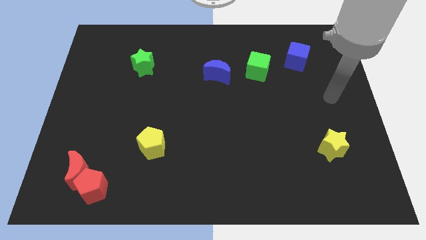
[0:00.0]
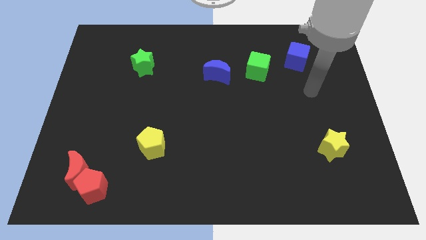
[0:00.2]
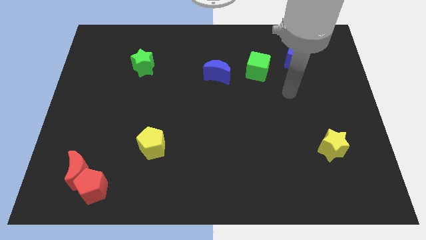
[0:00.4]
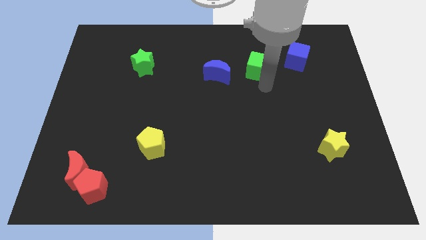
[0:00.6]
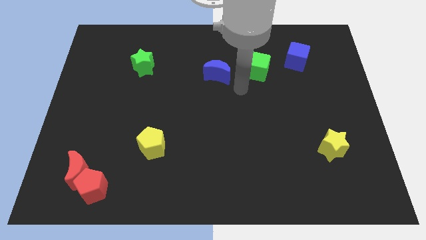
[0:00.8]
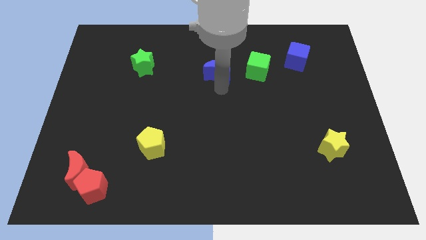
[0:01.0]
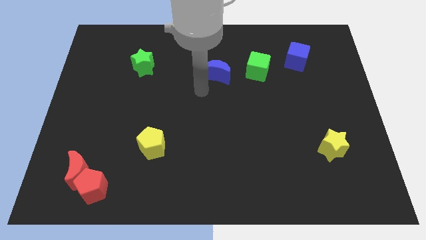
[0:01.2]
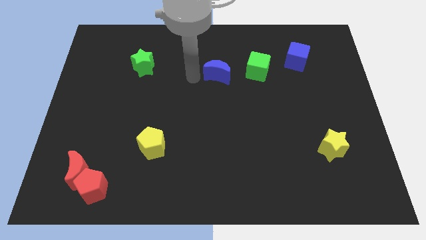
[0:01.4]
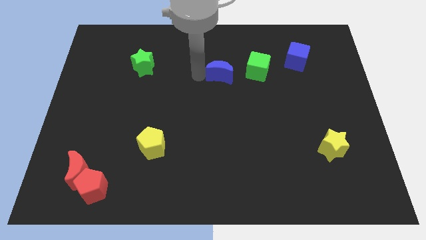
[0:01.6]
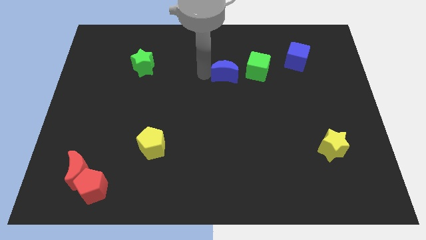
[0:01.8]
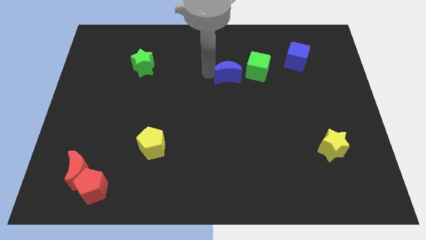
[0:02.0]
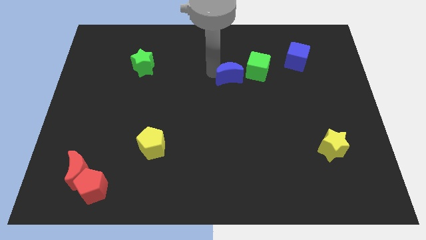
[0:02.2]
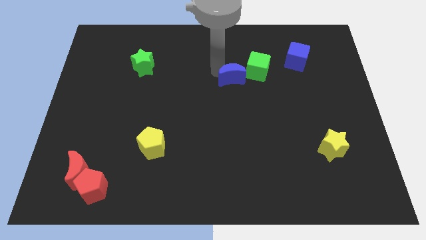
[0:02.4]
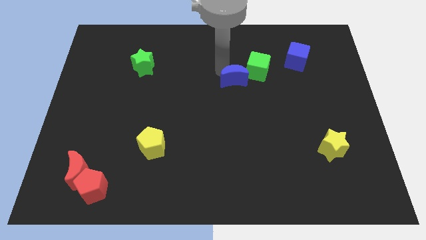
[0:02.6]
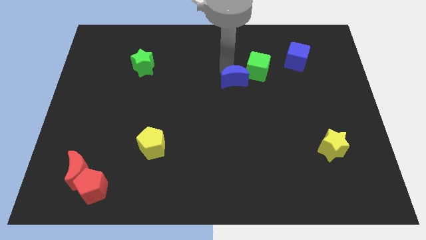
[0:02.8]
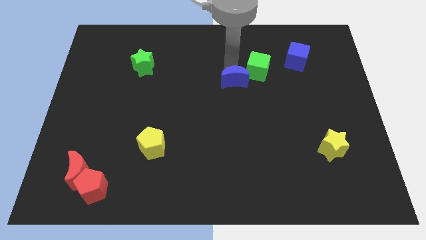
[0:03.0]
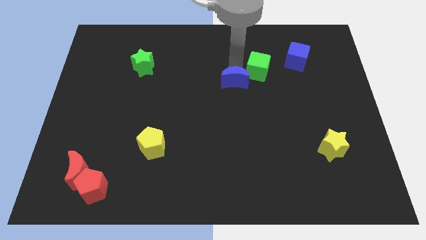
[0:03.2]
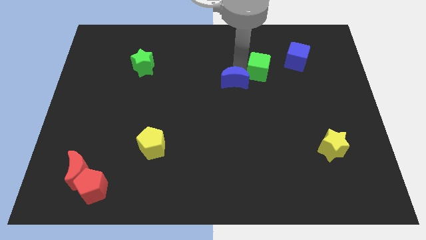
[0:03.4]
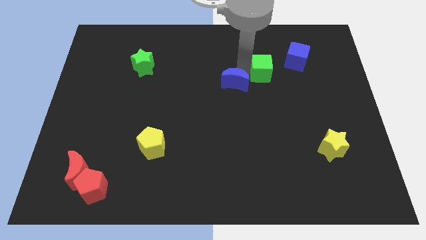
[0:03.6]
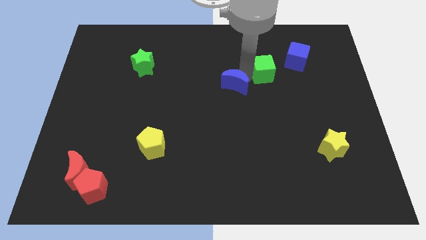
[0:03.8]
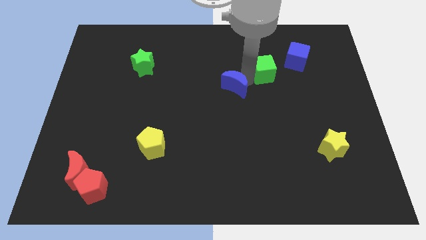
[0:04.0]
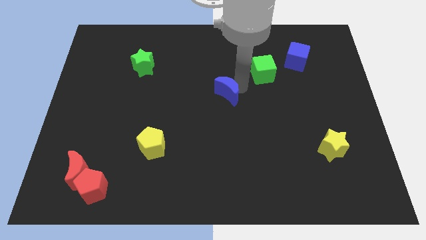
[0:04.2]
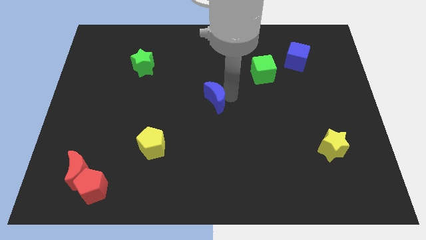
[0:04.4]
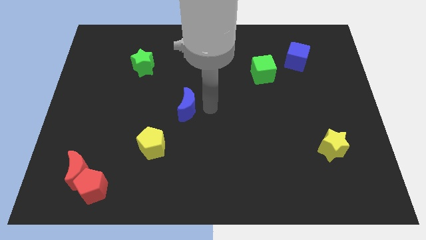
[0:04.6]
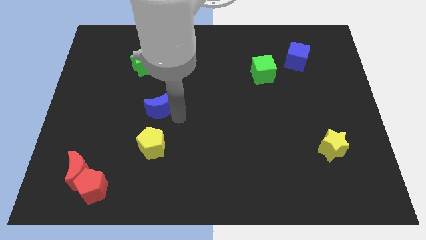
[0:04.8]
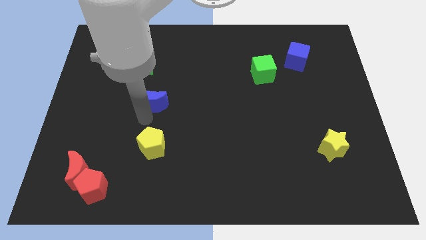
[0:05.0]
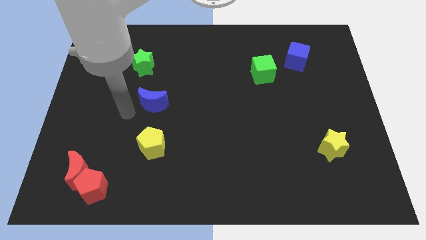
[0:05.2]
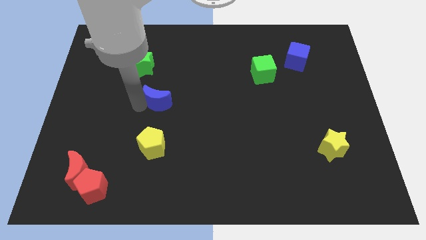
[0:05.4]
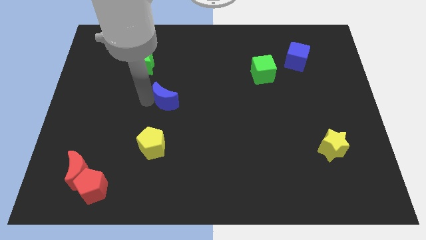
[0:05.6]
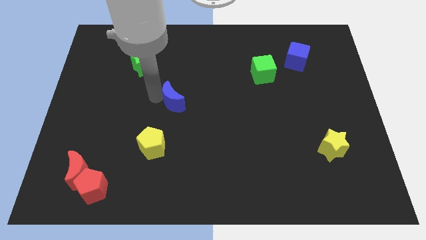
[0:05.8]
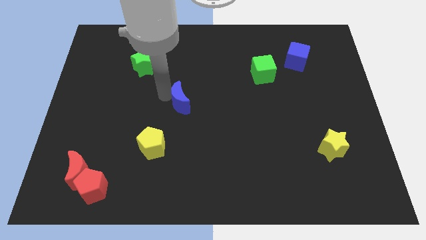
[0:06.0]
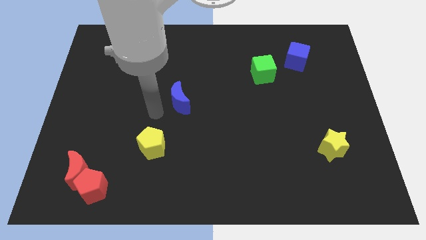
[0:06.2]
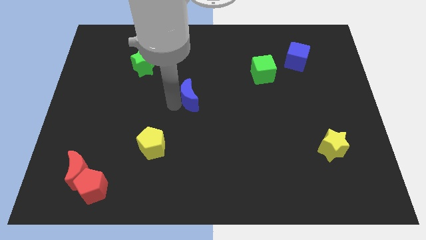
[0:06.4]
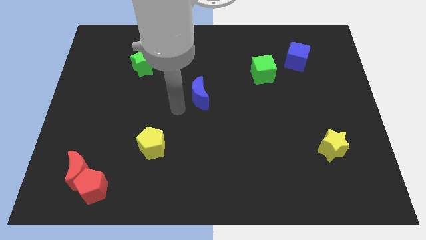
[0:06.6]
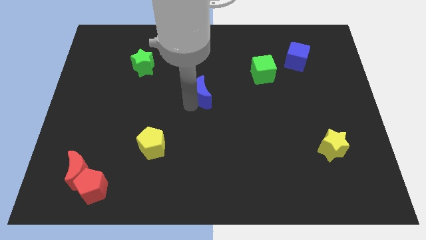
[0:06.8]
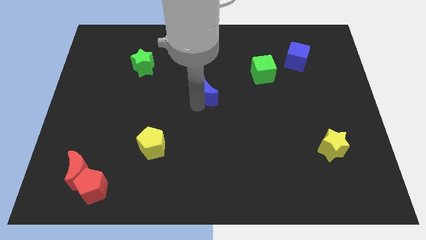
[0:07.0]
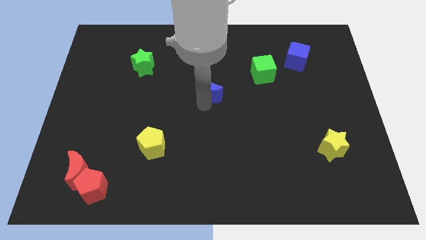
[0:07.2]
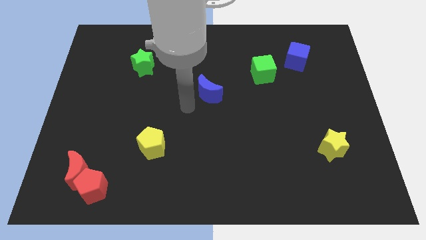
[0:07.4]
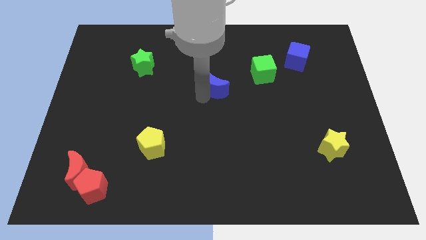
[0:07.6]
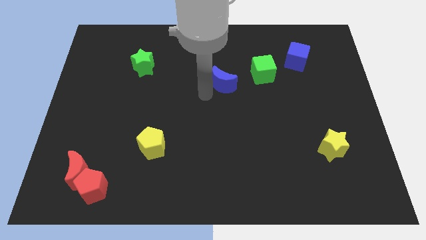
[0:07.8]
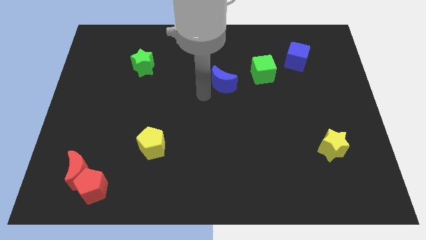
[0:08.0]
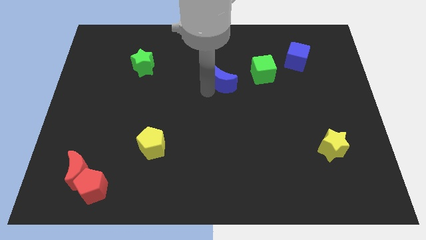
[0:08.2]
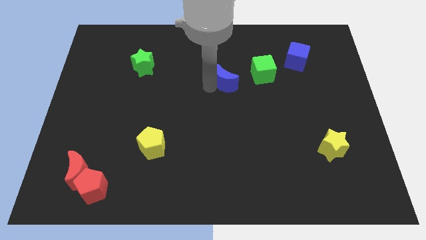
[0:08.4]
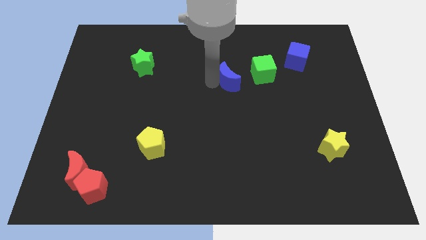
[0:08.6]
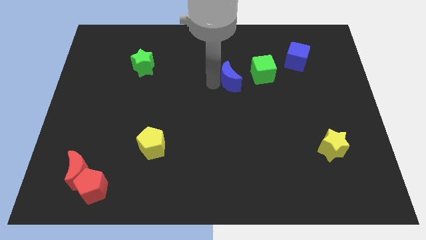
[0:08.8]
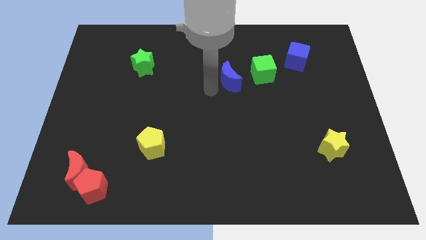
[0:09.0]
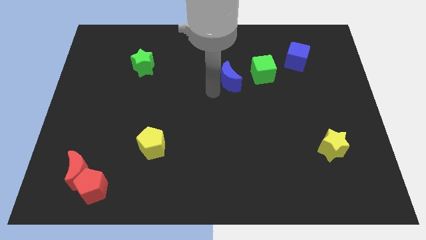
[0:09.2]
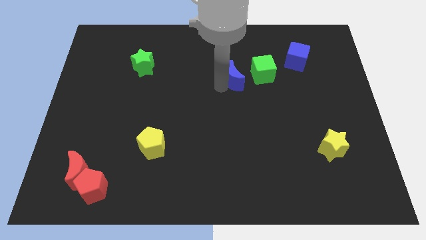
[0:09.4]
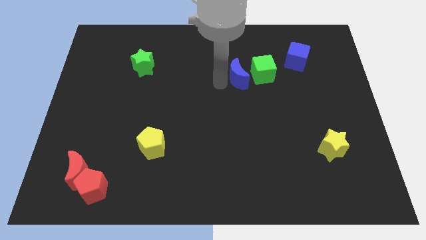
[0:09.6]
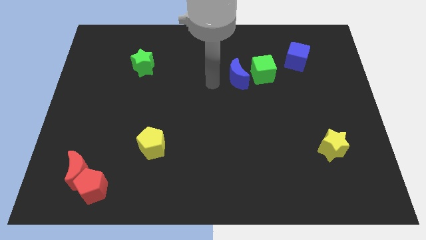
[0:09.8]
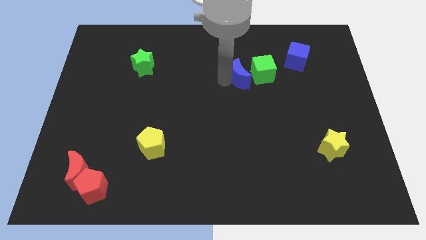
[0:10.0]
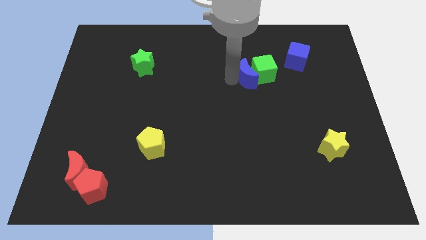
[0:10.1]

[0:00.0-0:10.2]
put the blue moon towards the green cube

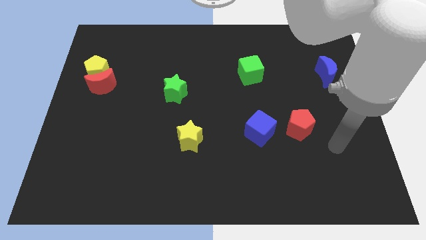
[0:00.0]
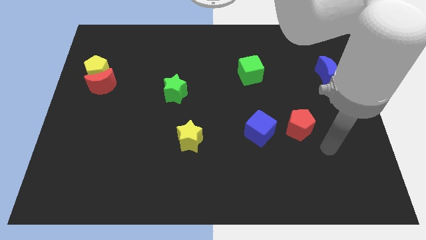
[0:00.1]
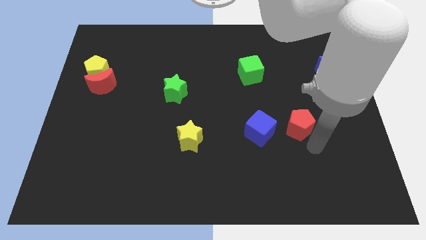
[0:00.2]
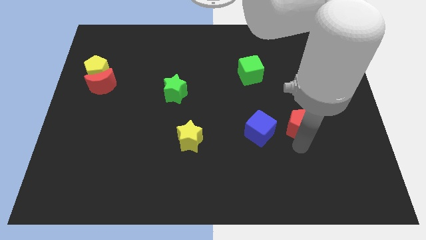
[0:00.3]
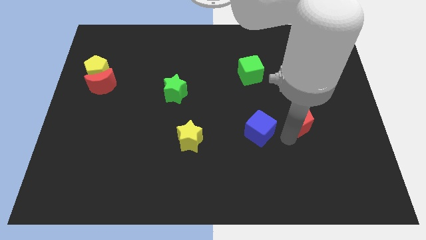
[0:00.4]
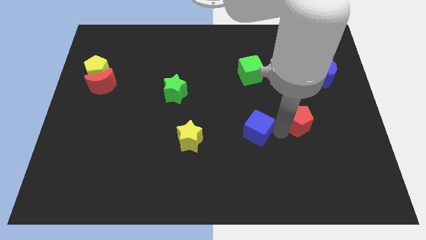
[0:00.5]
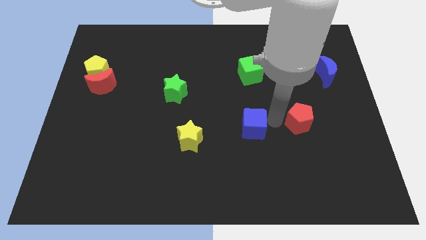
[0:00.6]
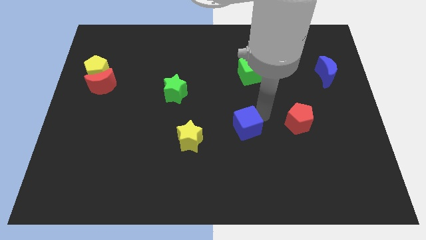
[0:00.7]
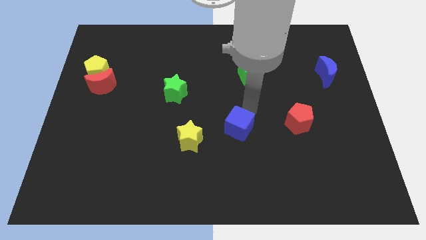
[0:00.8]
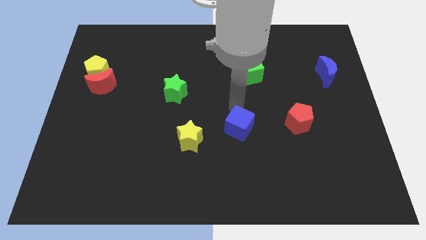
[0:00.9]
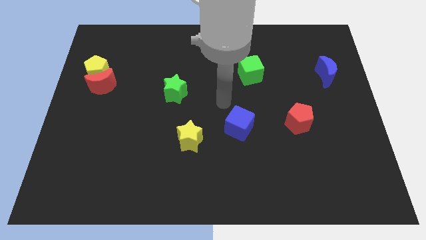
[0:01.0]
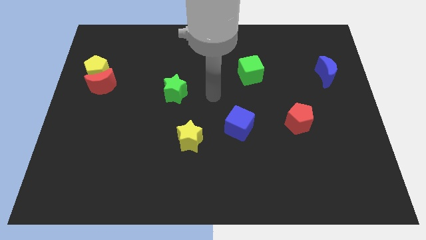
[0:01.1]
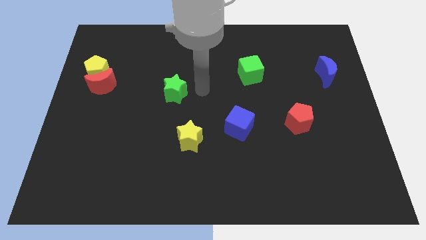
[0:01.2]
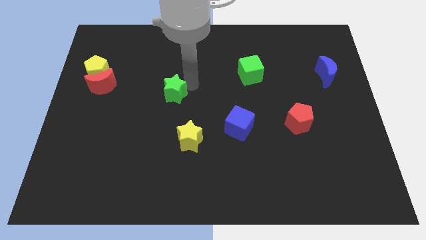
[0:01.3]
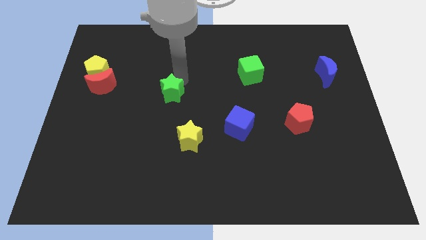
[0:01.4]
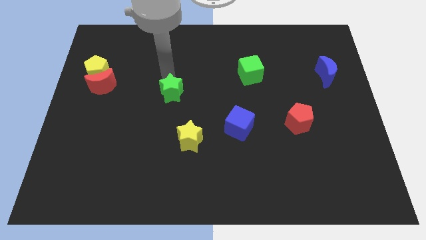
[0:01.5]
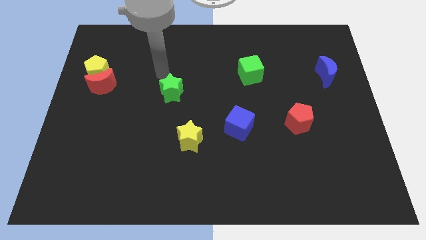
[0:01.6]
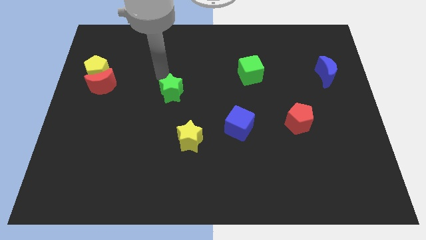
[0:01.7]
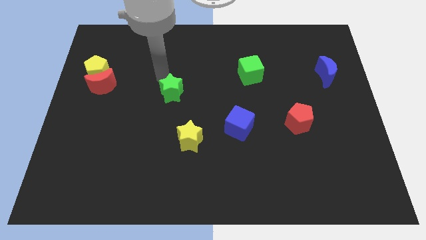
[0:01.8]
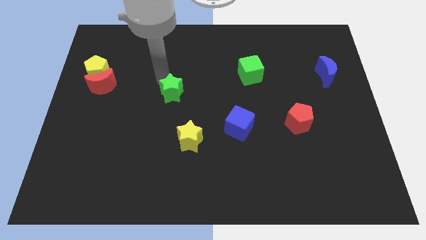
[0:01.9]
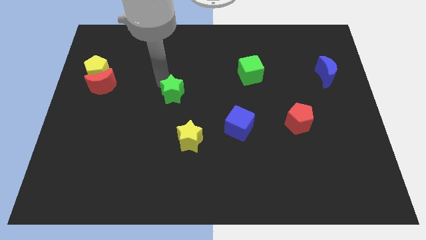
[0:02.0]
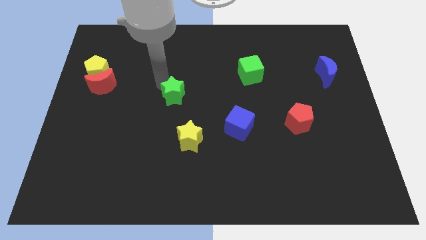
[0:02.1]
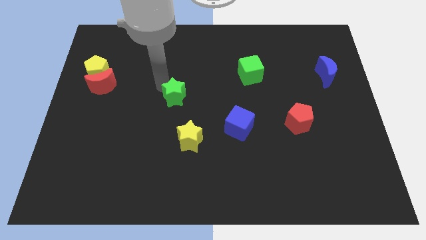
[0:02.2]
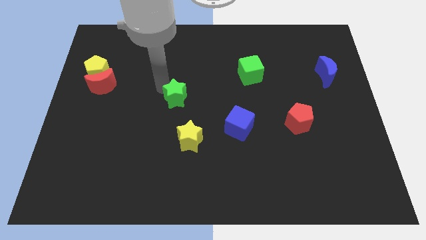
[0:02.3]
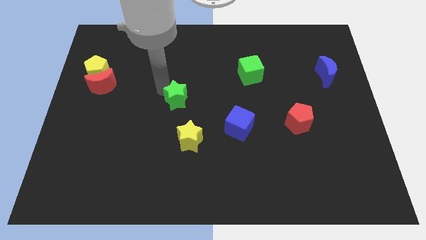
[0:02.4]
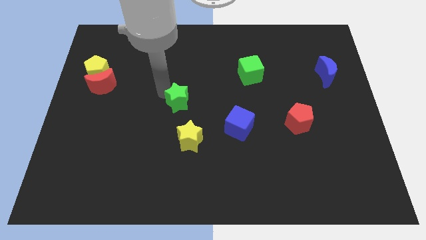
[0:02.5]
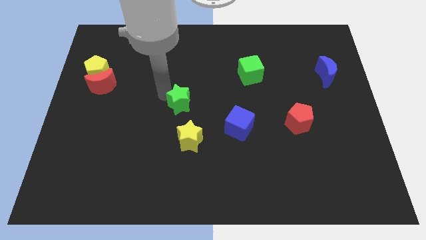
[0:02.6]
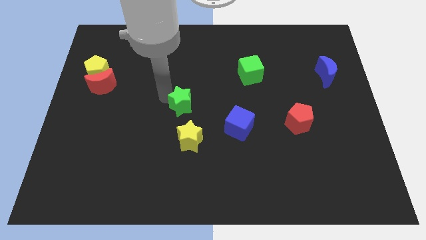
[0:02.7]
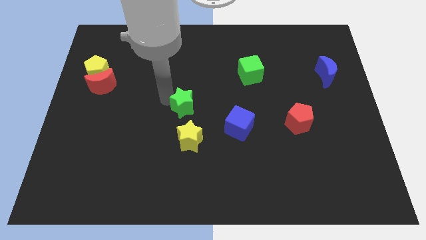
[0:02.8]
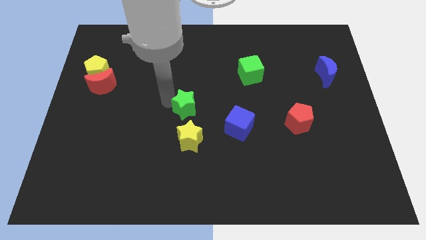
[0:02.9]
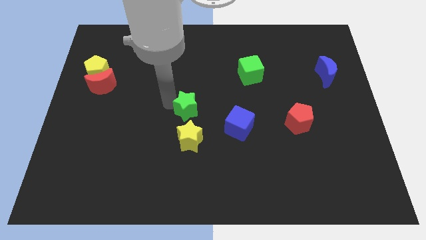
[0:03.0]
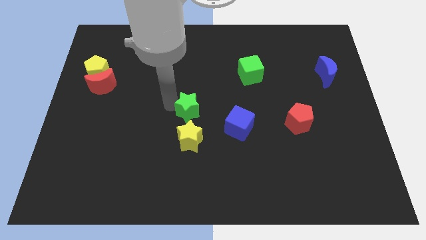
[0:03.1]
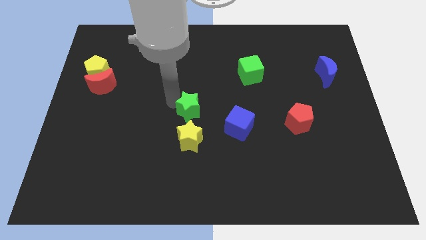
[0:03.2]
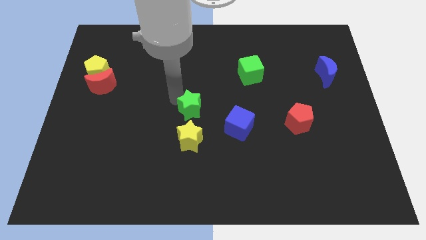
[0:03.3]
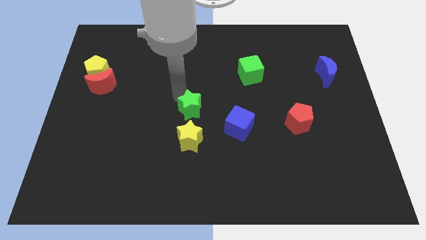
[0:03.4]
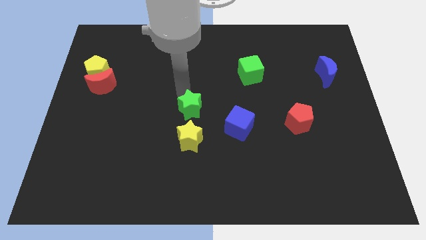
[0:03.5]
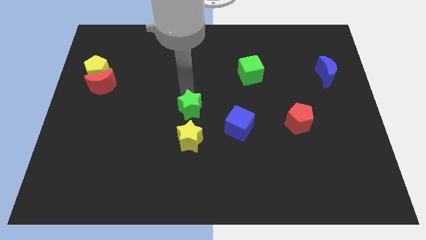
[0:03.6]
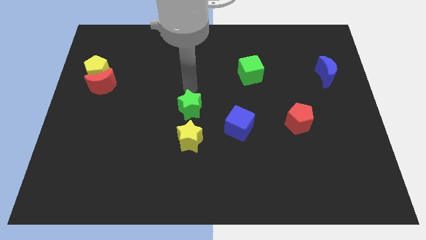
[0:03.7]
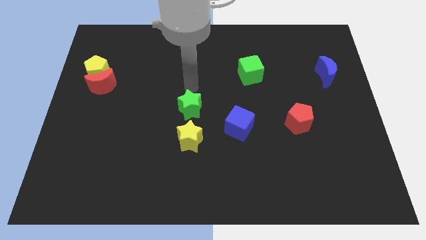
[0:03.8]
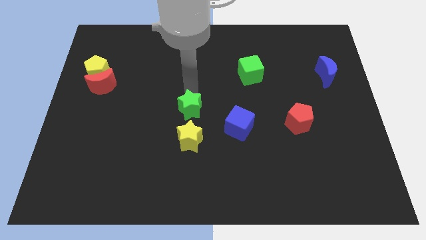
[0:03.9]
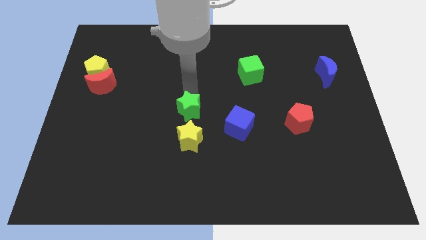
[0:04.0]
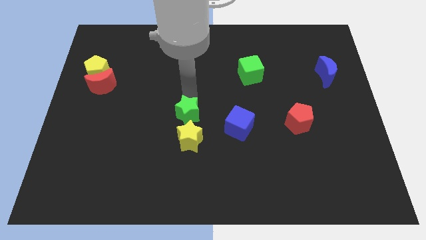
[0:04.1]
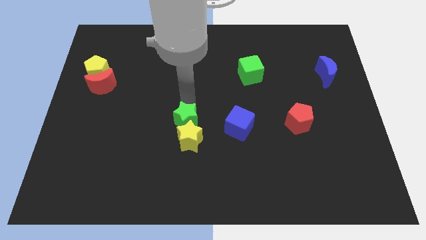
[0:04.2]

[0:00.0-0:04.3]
push the green star towards the yellow star
